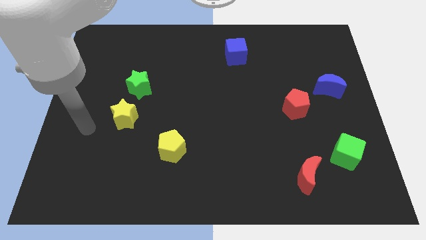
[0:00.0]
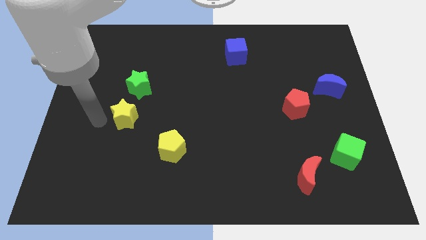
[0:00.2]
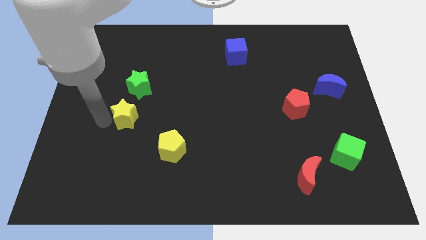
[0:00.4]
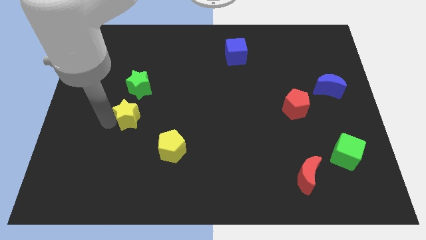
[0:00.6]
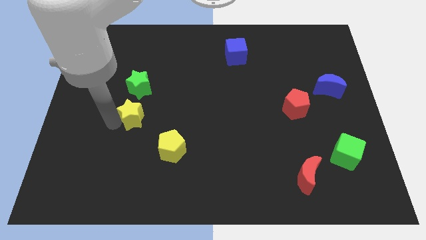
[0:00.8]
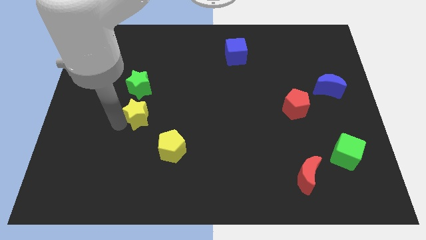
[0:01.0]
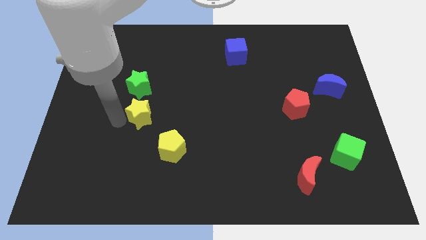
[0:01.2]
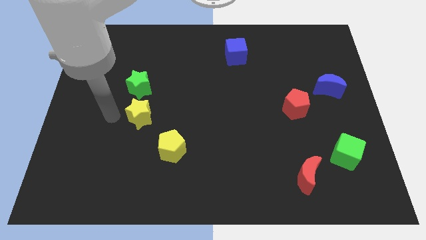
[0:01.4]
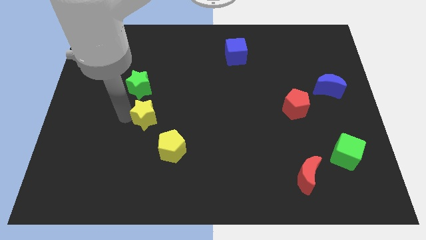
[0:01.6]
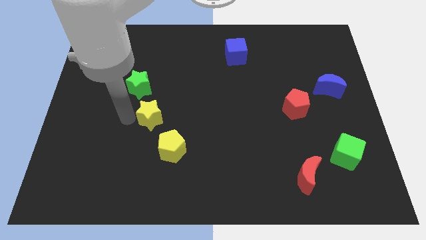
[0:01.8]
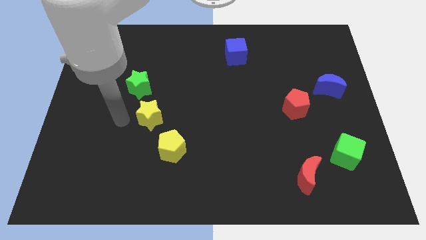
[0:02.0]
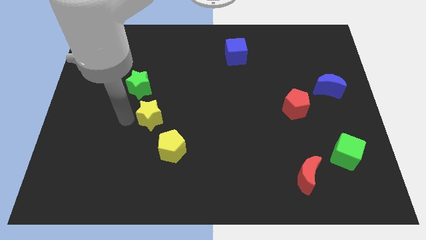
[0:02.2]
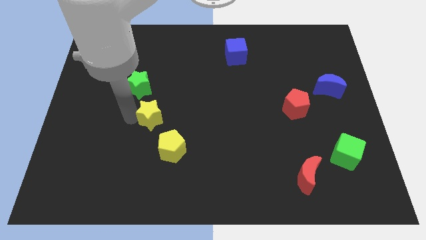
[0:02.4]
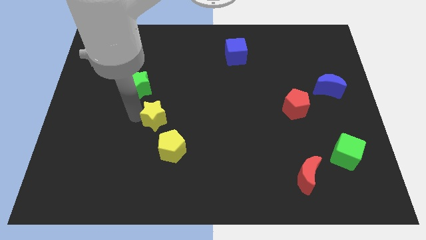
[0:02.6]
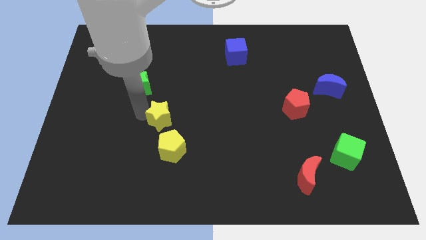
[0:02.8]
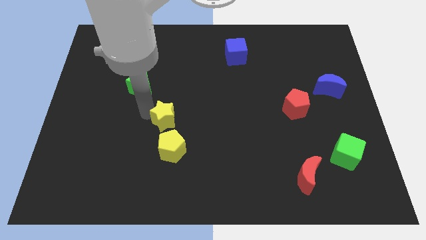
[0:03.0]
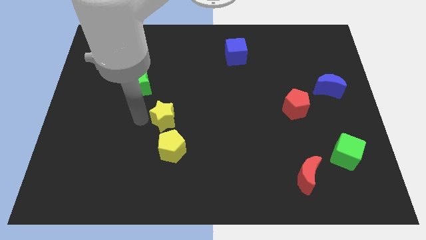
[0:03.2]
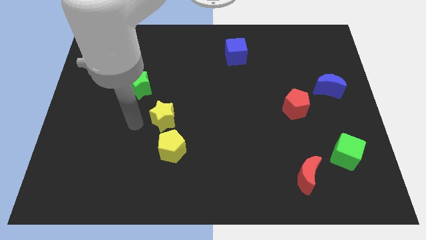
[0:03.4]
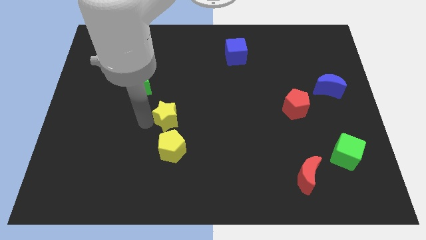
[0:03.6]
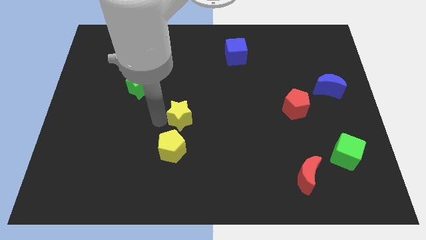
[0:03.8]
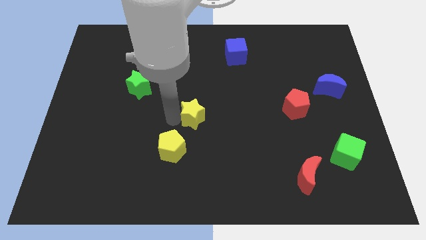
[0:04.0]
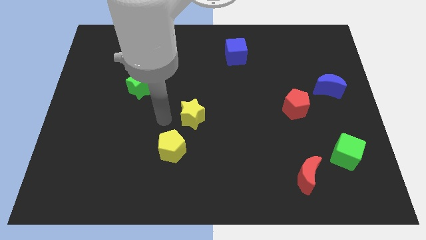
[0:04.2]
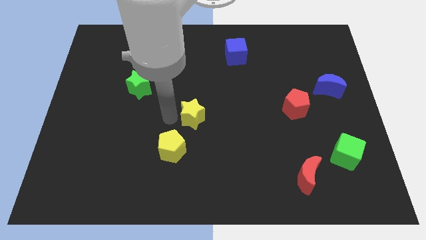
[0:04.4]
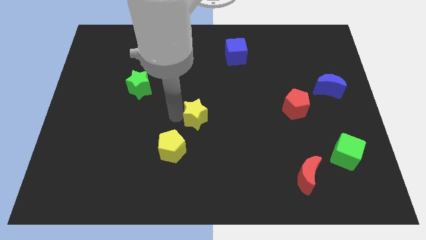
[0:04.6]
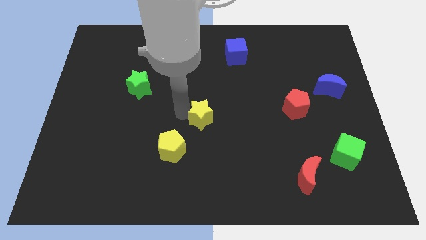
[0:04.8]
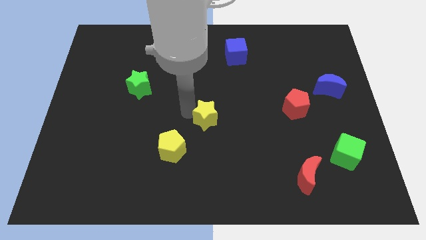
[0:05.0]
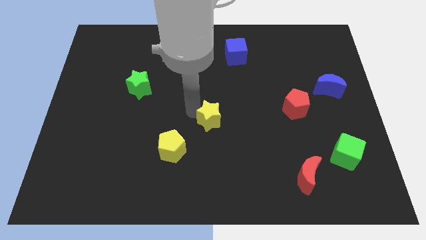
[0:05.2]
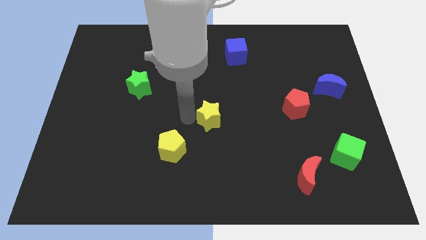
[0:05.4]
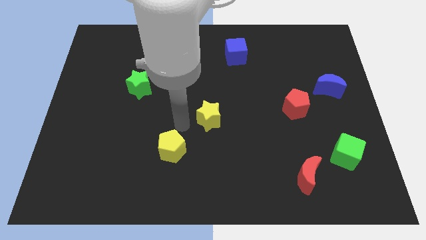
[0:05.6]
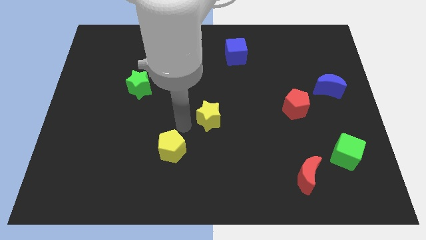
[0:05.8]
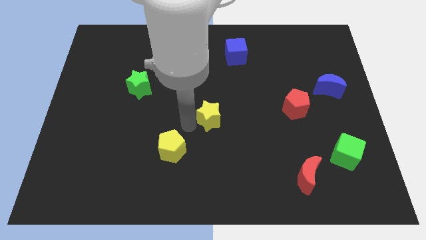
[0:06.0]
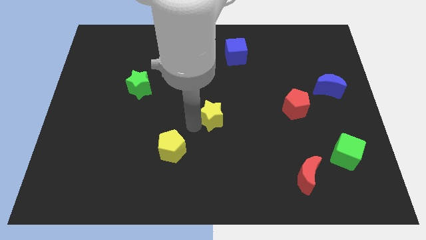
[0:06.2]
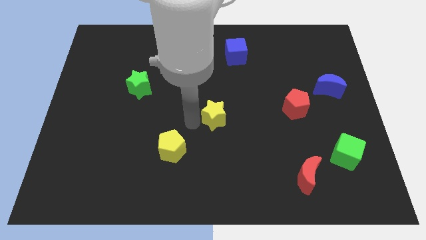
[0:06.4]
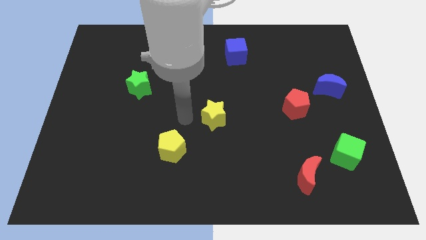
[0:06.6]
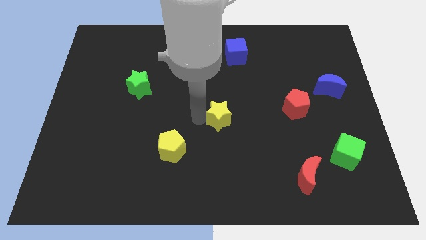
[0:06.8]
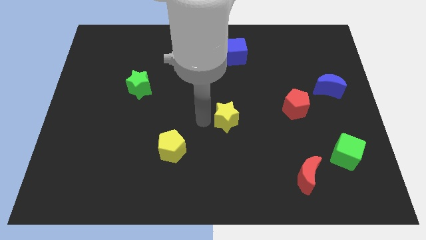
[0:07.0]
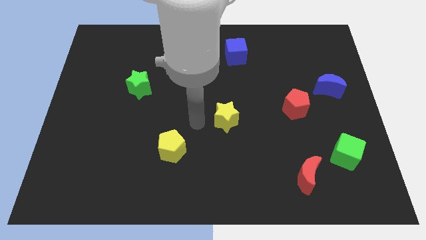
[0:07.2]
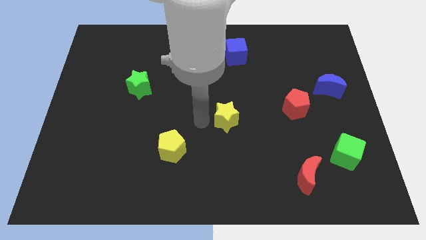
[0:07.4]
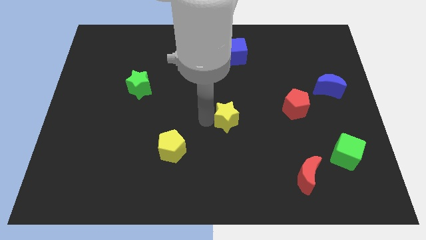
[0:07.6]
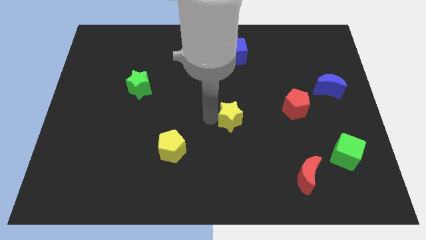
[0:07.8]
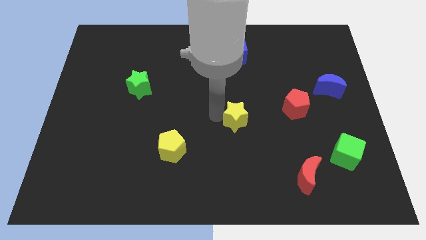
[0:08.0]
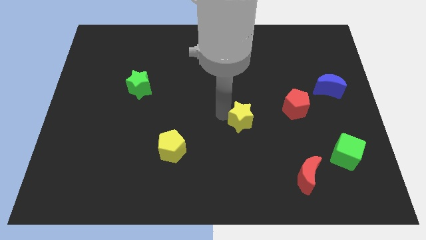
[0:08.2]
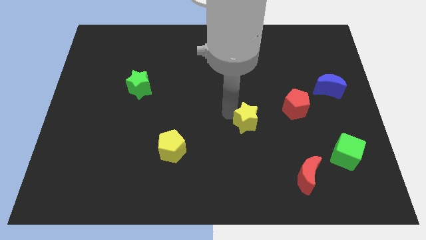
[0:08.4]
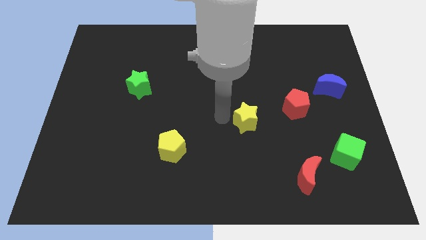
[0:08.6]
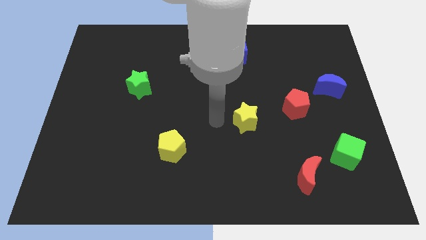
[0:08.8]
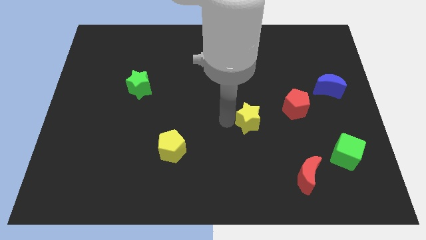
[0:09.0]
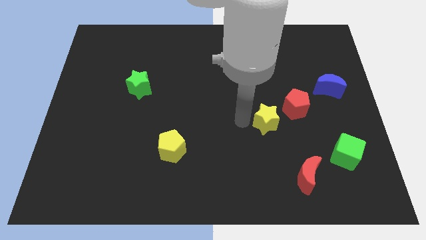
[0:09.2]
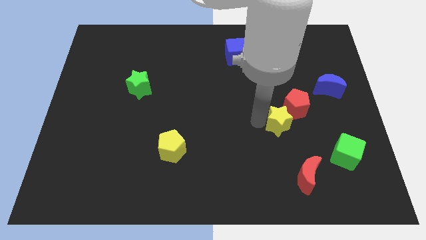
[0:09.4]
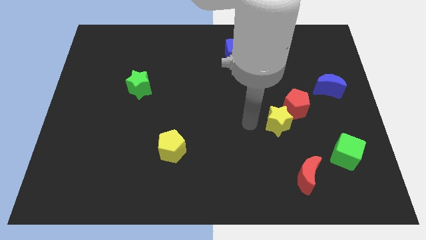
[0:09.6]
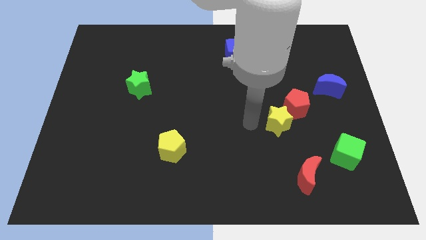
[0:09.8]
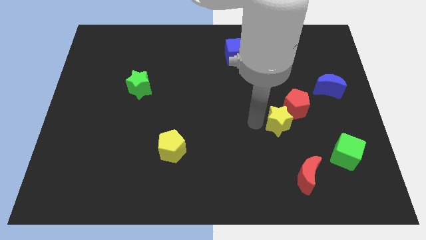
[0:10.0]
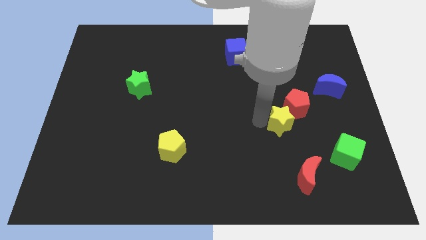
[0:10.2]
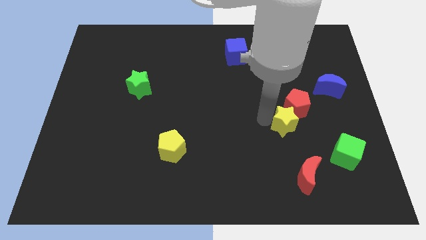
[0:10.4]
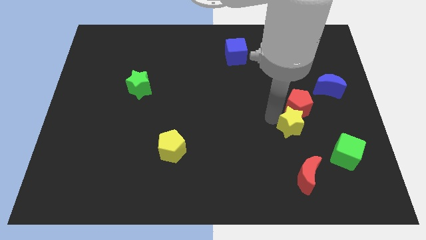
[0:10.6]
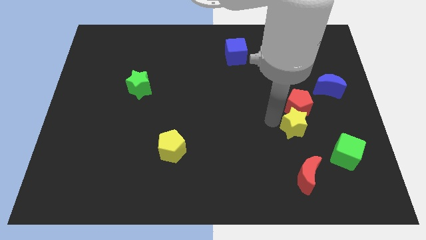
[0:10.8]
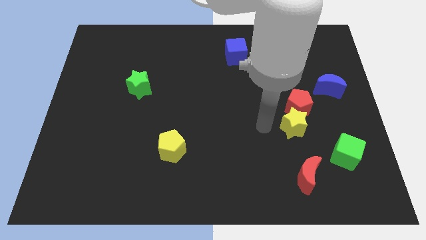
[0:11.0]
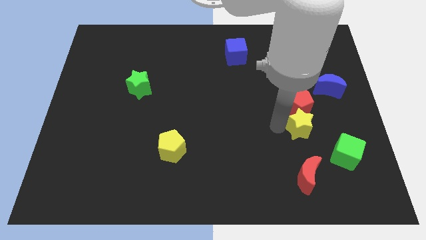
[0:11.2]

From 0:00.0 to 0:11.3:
push the yellow star to the bottom right of the red pentagon

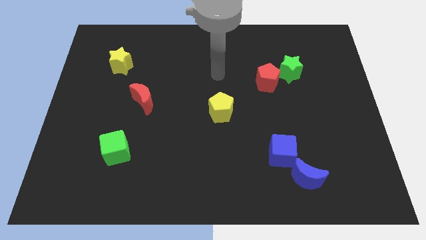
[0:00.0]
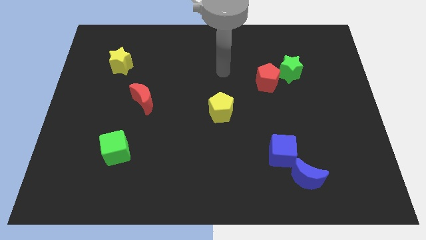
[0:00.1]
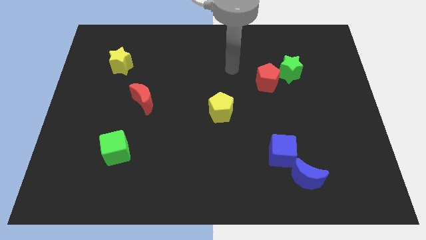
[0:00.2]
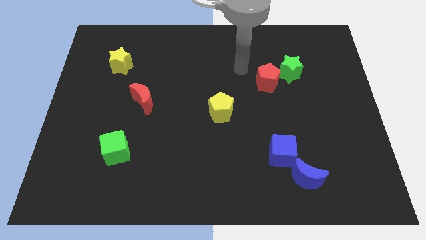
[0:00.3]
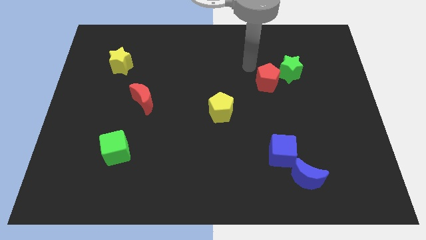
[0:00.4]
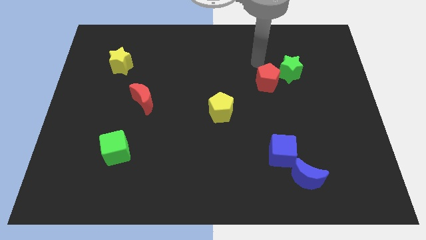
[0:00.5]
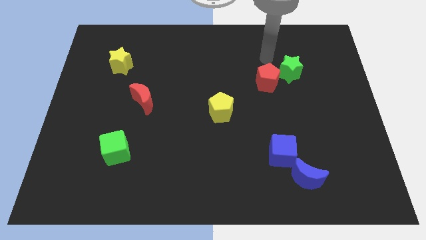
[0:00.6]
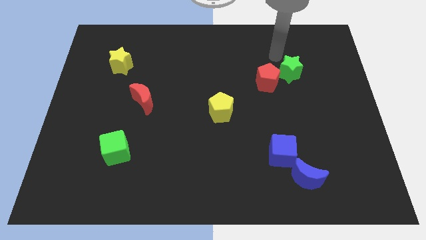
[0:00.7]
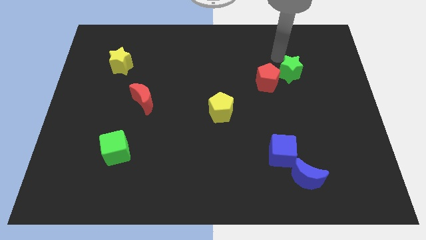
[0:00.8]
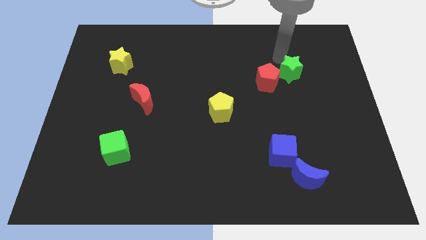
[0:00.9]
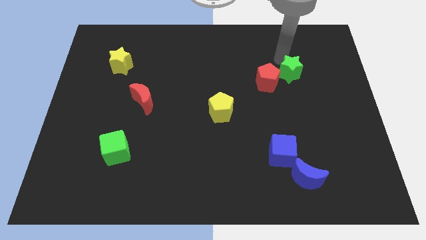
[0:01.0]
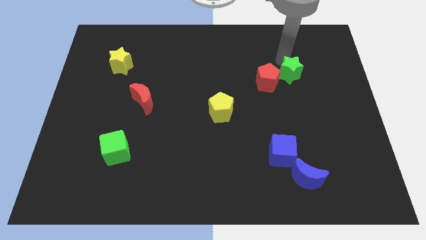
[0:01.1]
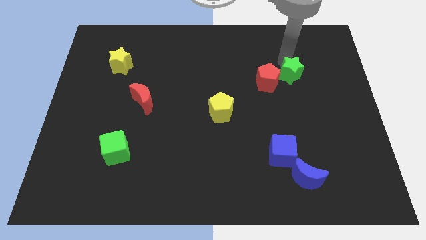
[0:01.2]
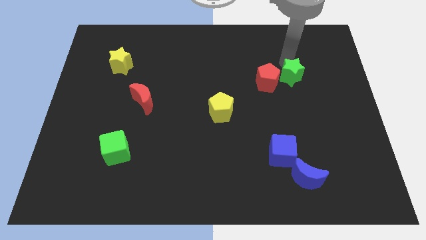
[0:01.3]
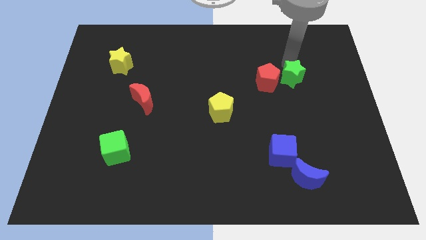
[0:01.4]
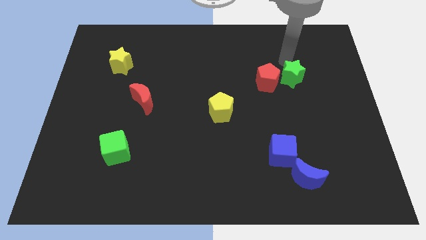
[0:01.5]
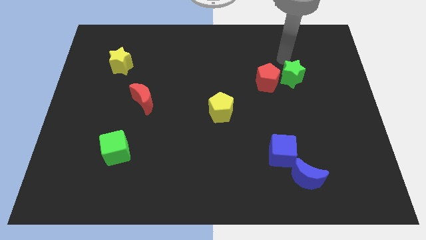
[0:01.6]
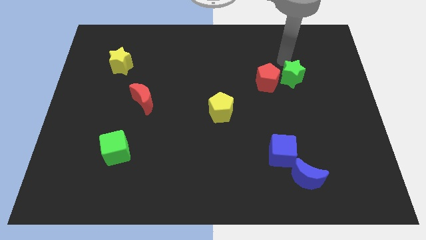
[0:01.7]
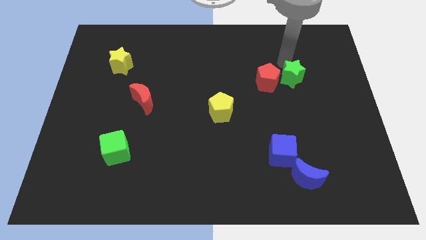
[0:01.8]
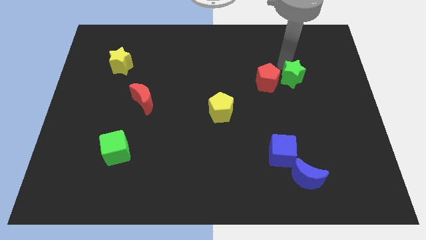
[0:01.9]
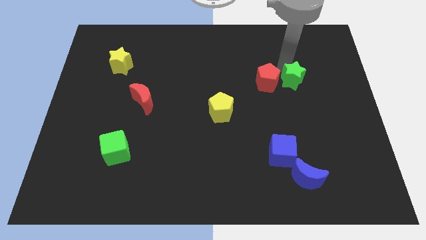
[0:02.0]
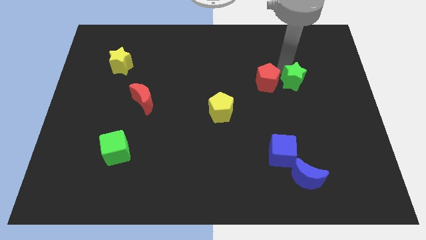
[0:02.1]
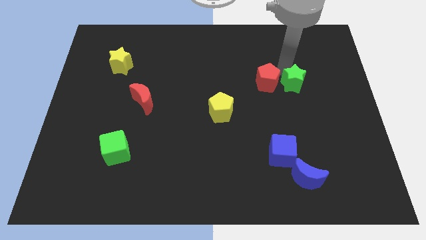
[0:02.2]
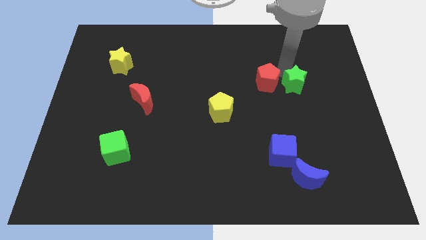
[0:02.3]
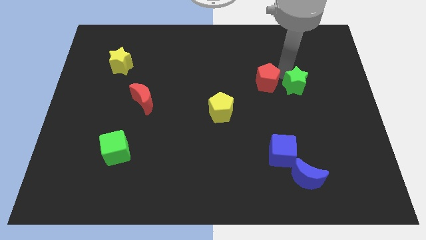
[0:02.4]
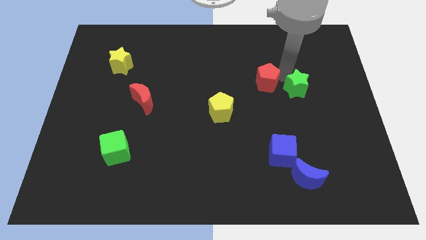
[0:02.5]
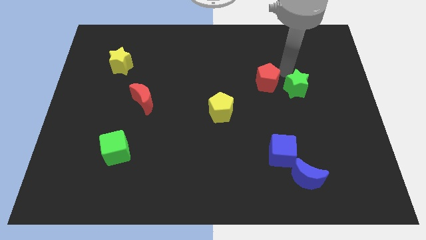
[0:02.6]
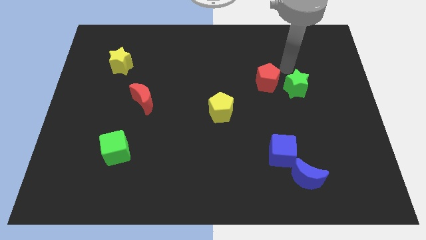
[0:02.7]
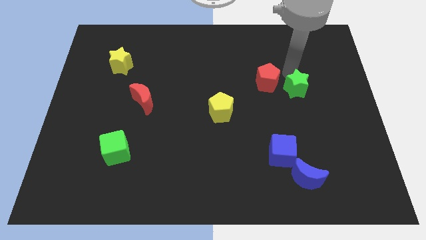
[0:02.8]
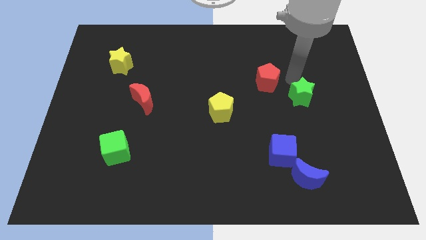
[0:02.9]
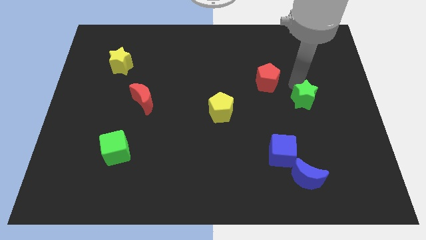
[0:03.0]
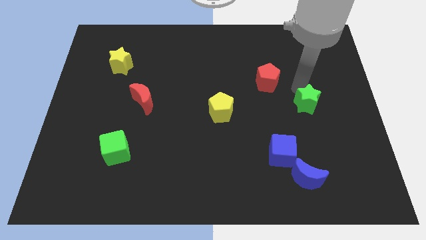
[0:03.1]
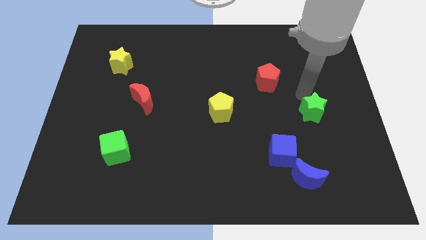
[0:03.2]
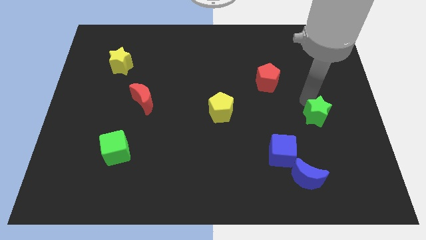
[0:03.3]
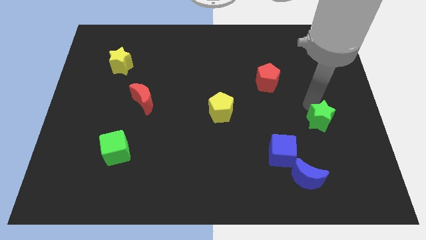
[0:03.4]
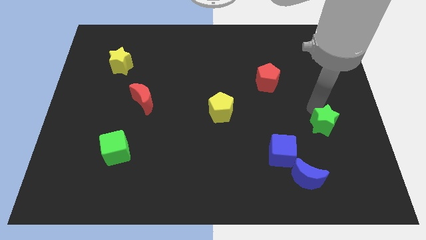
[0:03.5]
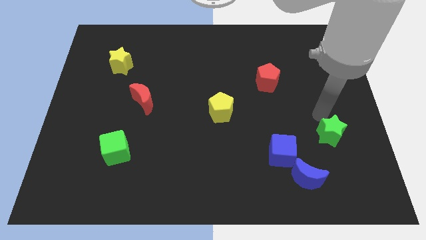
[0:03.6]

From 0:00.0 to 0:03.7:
move the green star to the right of the blue cube
